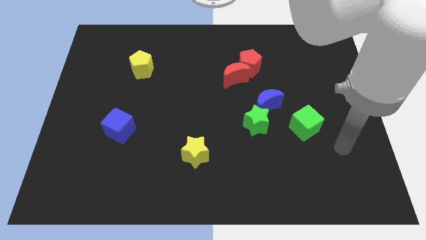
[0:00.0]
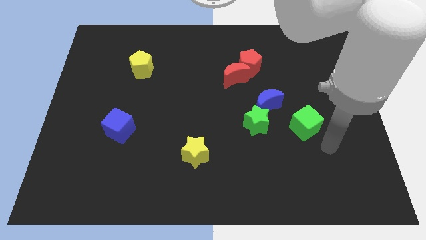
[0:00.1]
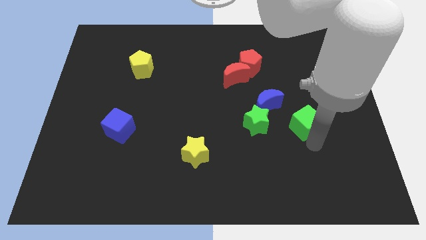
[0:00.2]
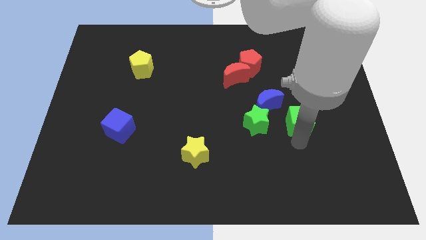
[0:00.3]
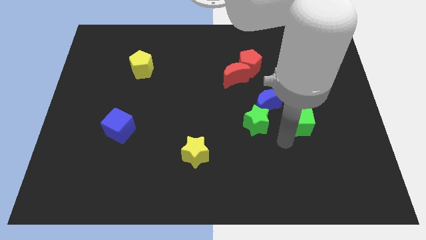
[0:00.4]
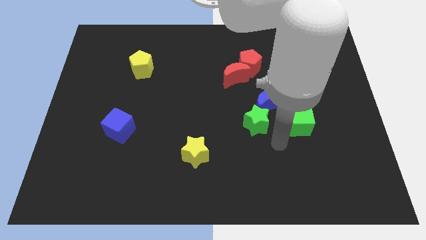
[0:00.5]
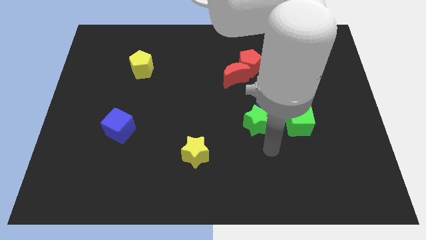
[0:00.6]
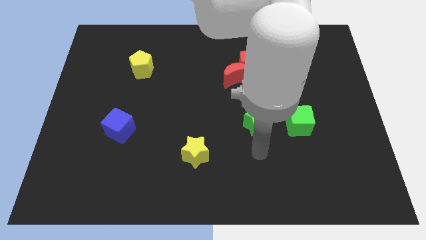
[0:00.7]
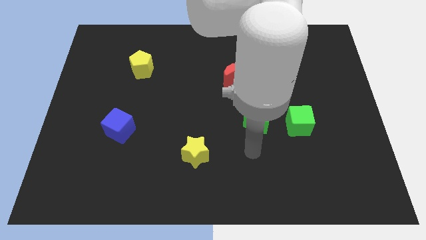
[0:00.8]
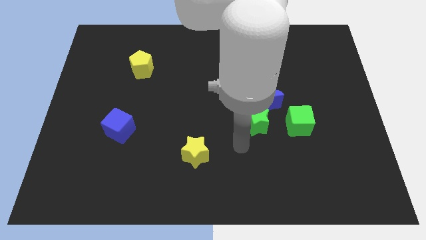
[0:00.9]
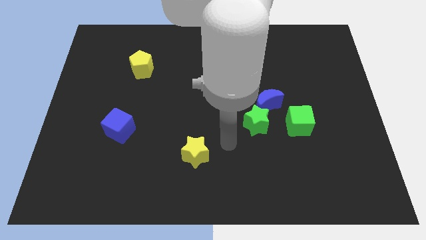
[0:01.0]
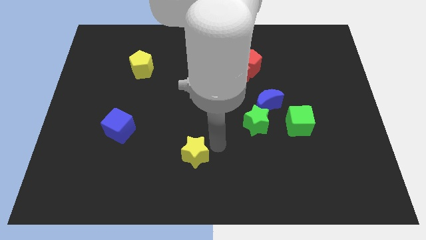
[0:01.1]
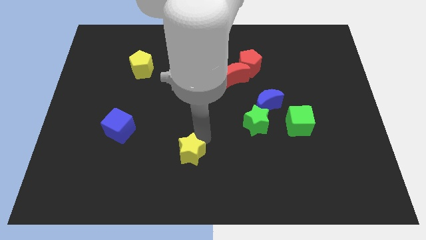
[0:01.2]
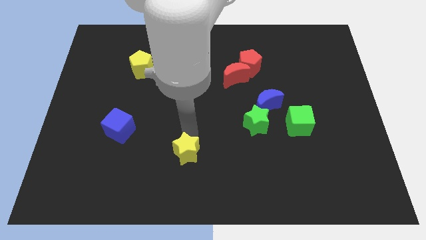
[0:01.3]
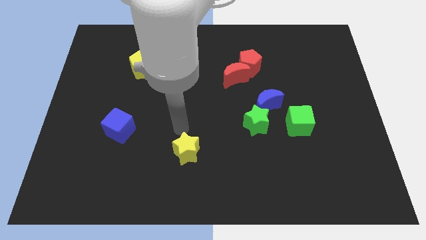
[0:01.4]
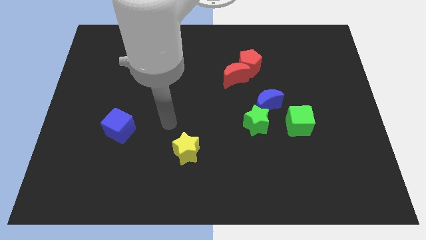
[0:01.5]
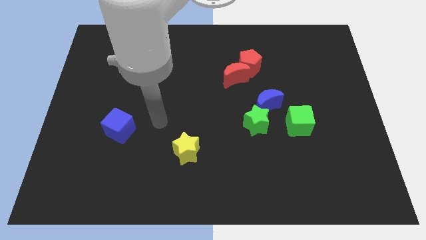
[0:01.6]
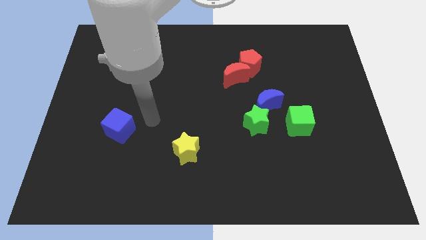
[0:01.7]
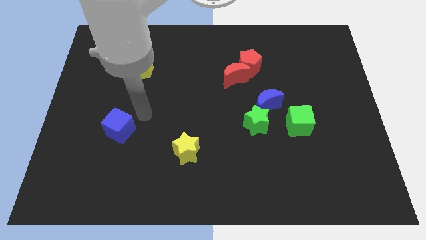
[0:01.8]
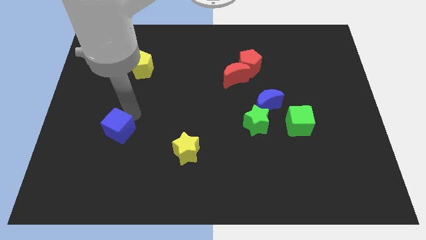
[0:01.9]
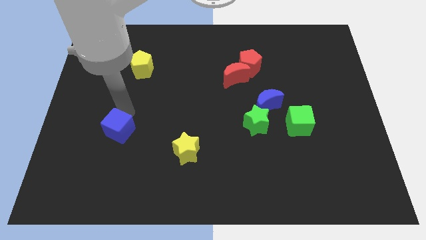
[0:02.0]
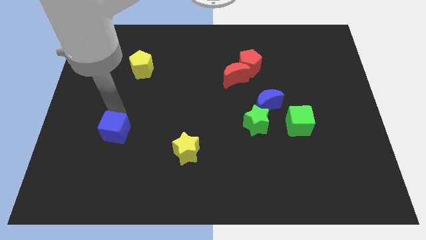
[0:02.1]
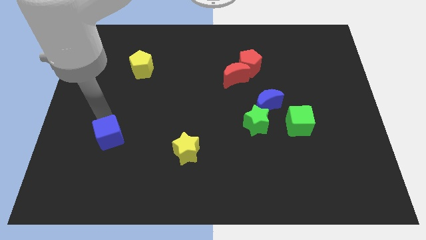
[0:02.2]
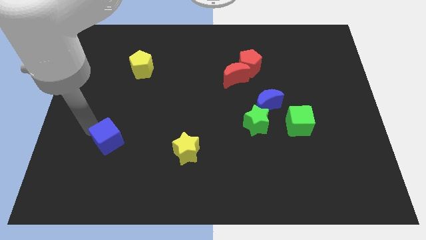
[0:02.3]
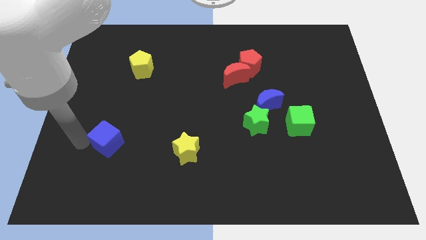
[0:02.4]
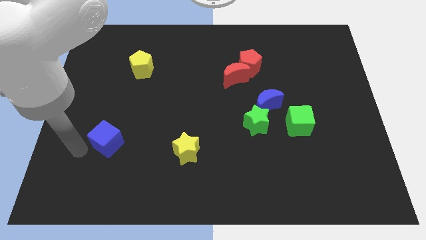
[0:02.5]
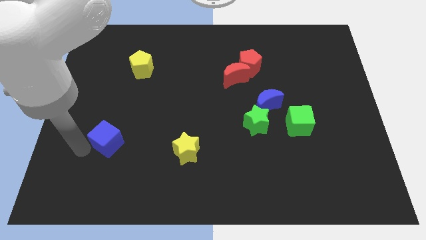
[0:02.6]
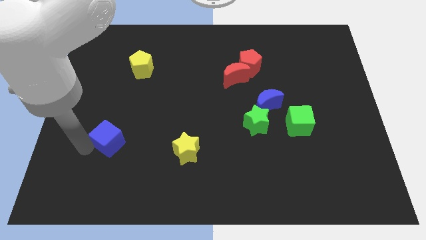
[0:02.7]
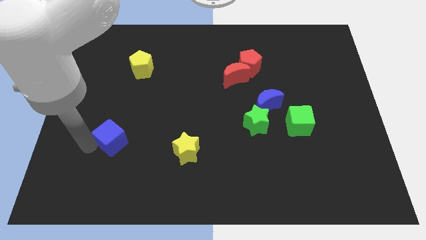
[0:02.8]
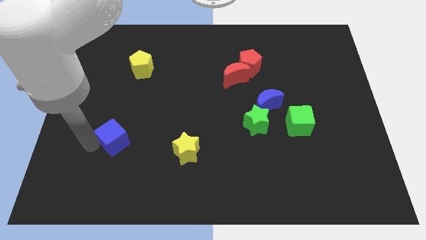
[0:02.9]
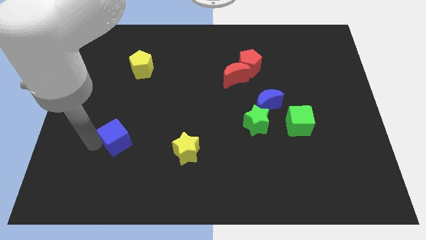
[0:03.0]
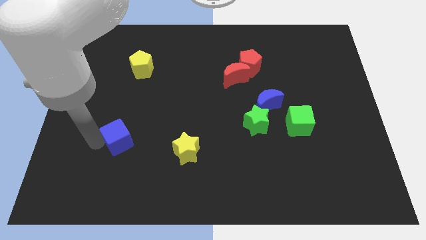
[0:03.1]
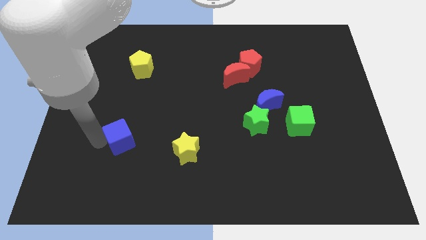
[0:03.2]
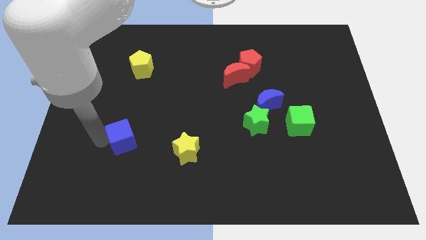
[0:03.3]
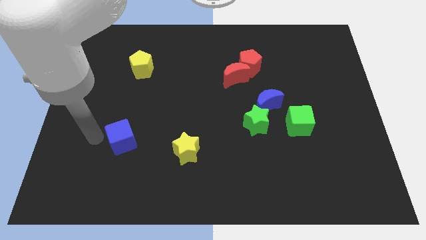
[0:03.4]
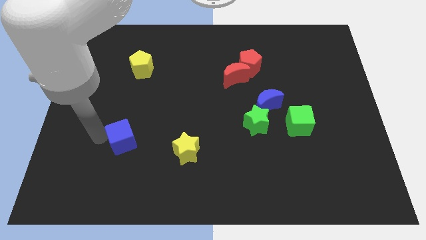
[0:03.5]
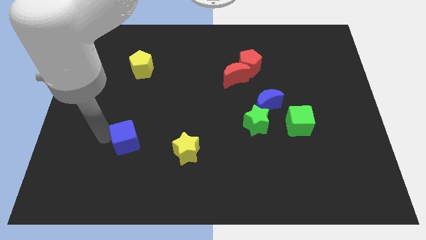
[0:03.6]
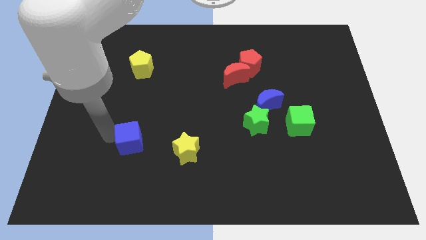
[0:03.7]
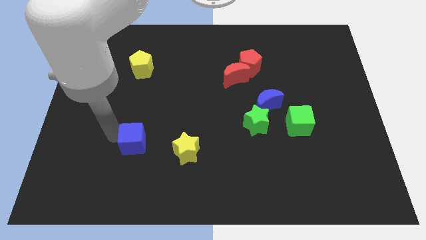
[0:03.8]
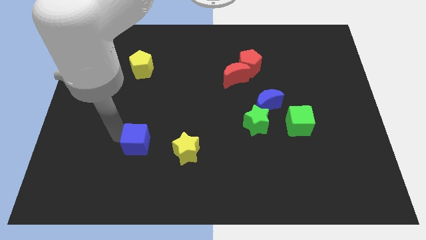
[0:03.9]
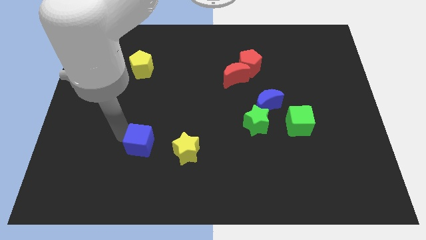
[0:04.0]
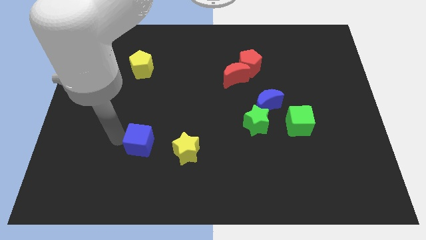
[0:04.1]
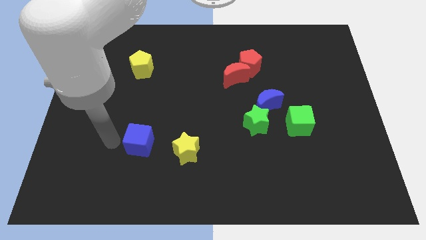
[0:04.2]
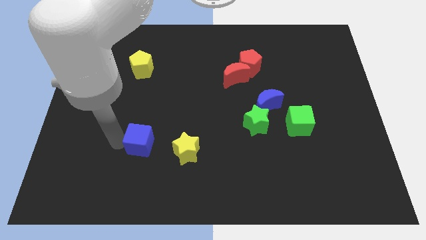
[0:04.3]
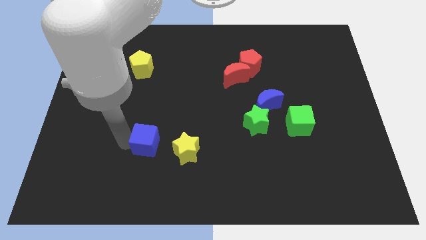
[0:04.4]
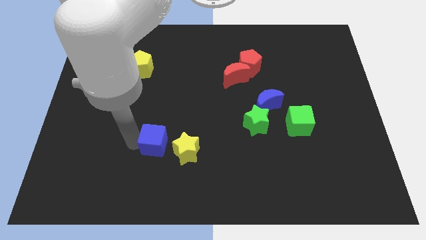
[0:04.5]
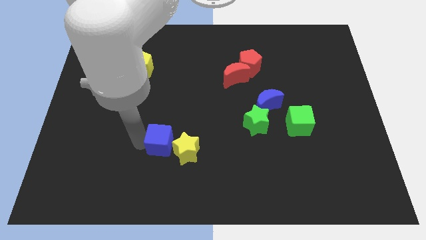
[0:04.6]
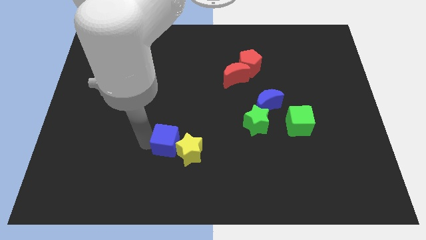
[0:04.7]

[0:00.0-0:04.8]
push the blue cube to the yellow star

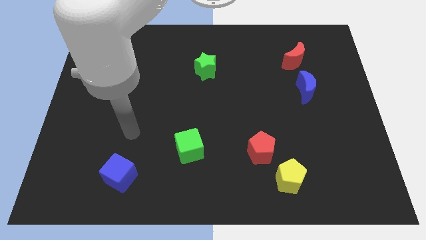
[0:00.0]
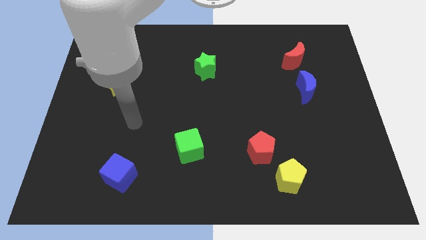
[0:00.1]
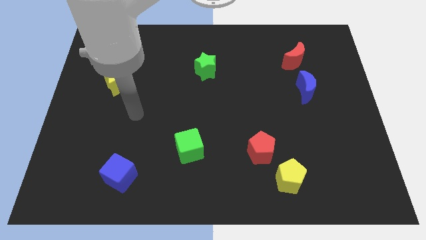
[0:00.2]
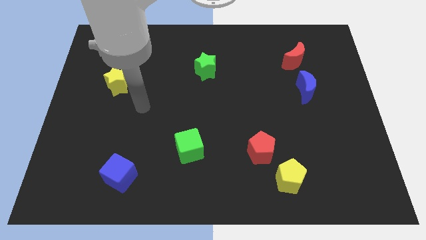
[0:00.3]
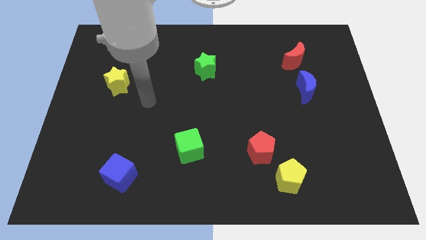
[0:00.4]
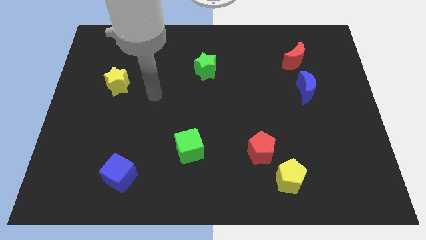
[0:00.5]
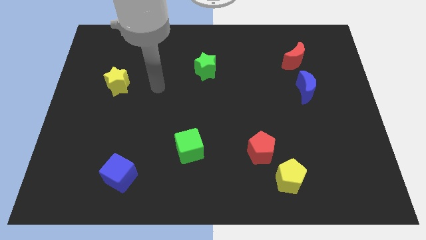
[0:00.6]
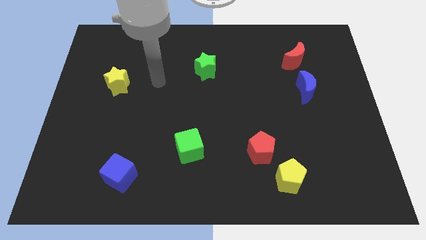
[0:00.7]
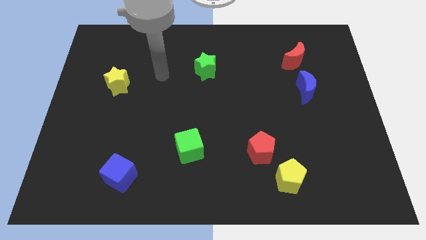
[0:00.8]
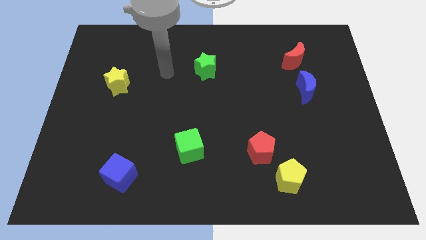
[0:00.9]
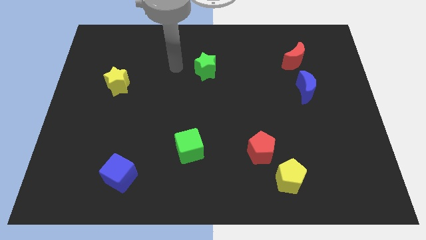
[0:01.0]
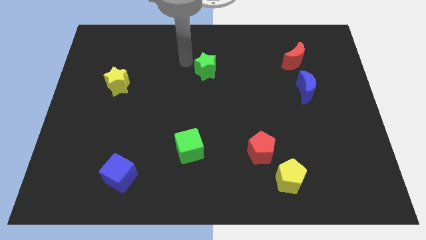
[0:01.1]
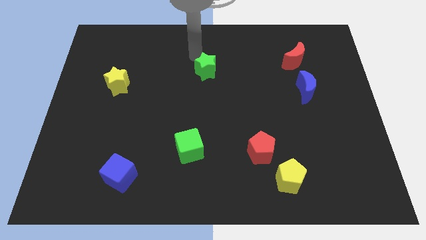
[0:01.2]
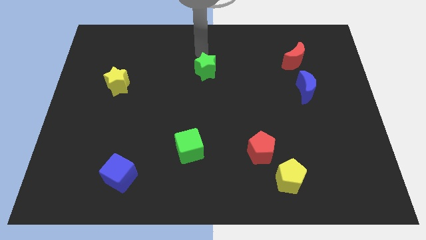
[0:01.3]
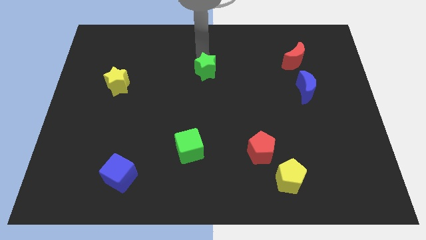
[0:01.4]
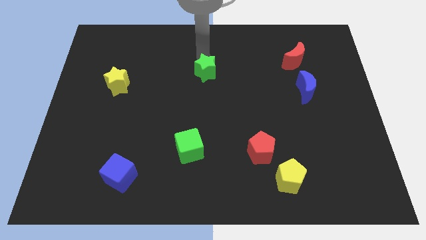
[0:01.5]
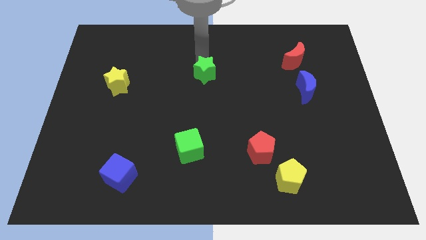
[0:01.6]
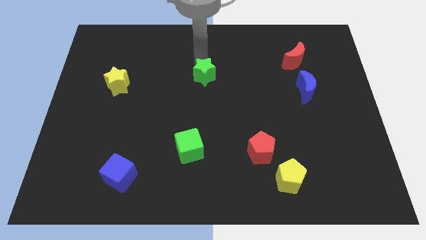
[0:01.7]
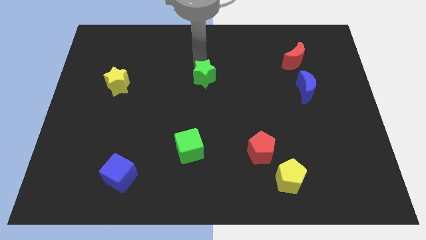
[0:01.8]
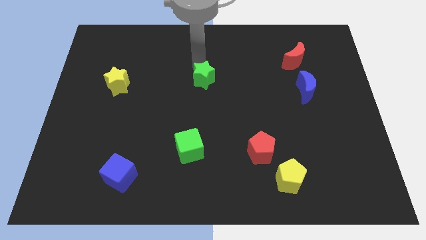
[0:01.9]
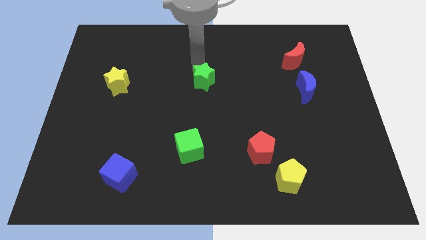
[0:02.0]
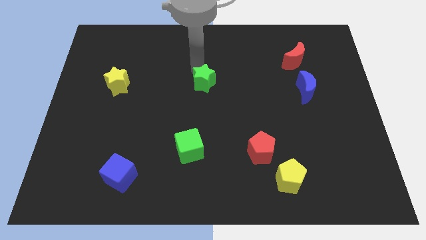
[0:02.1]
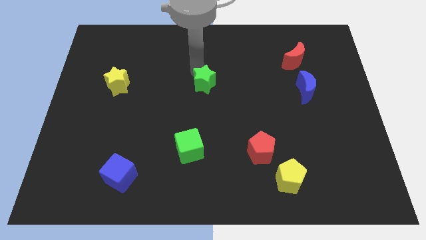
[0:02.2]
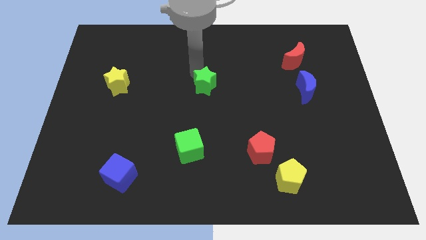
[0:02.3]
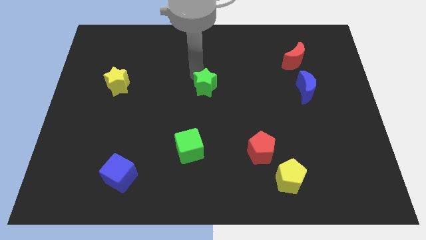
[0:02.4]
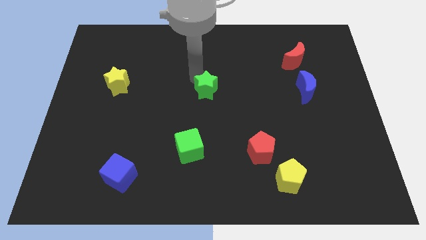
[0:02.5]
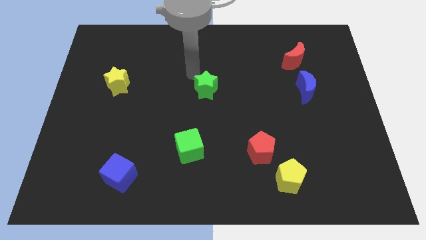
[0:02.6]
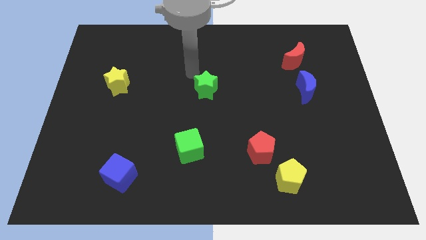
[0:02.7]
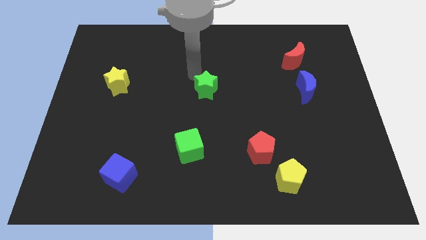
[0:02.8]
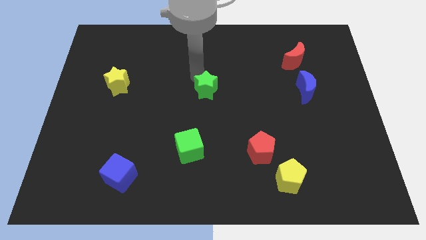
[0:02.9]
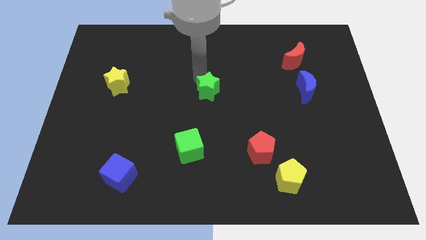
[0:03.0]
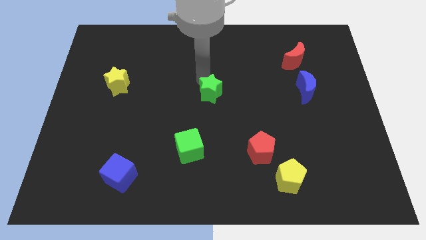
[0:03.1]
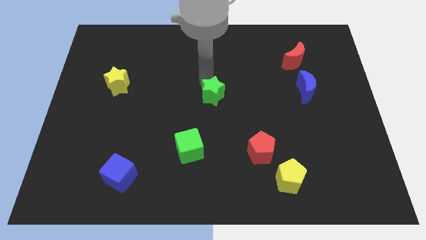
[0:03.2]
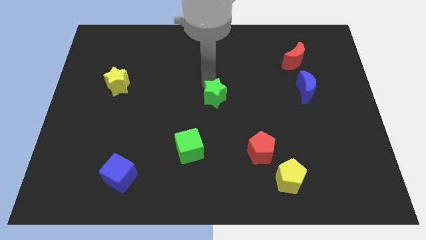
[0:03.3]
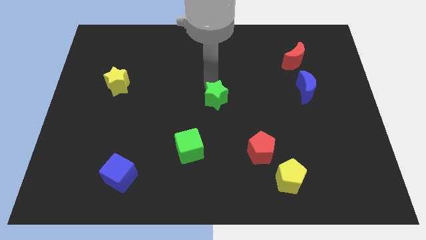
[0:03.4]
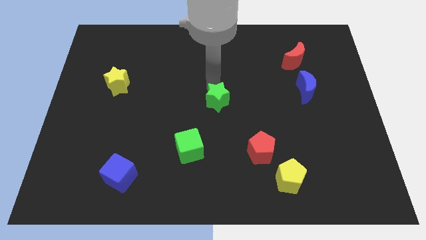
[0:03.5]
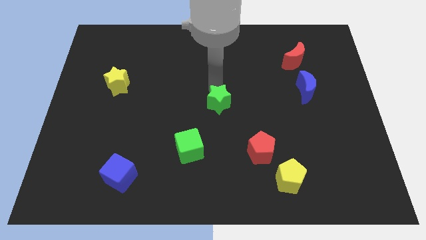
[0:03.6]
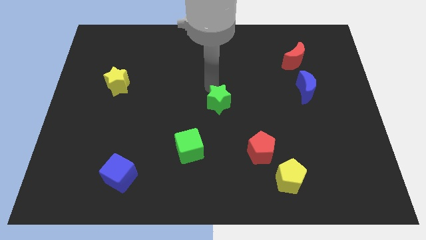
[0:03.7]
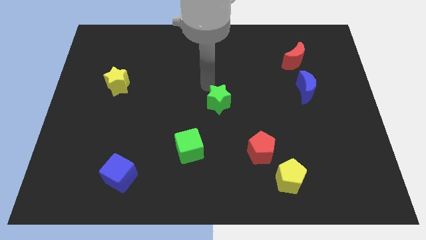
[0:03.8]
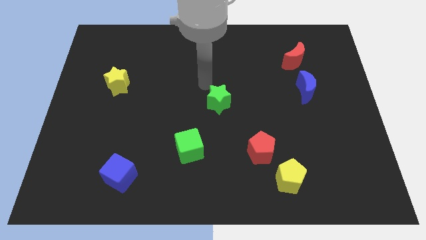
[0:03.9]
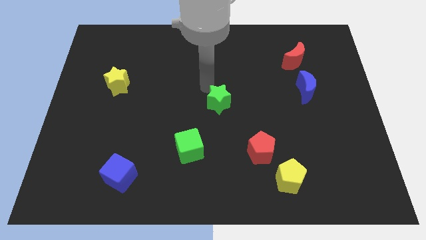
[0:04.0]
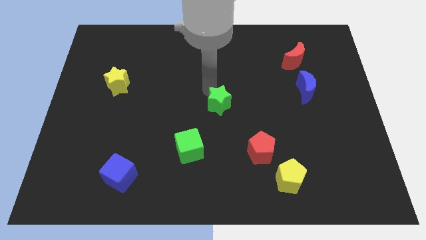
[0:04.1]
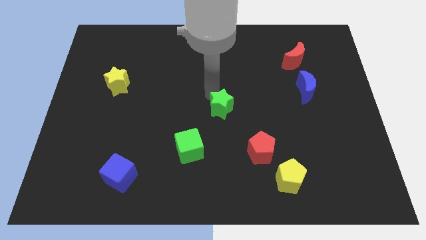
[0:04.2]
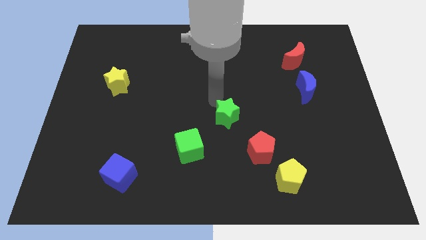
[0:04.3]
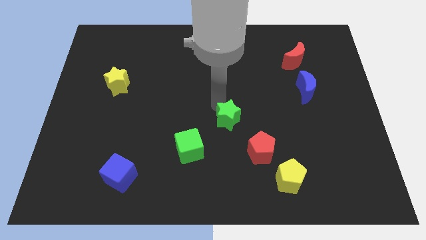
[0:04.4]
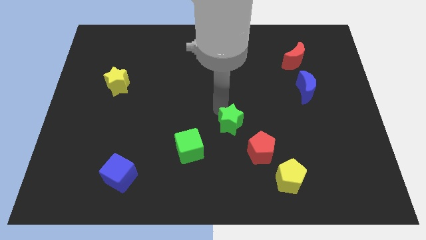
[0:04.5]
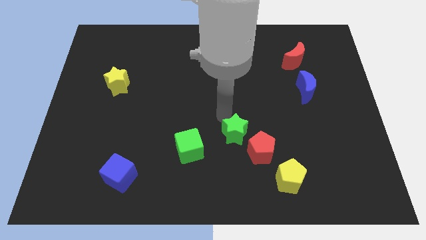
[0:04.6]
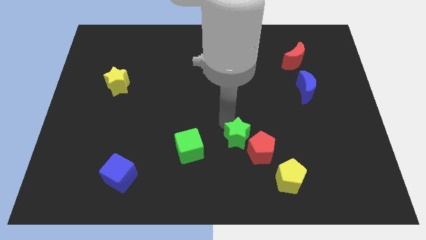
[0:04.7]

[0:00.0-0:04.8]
push the green star to the red pentagon
